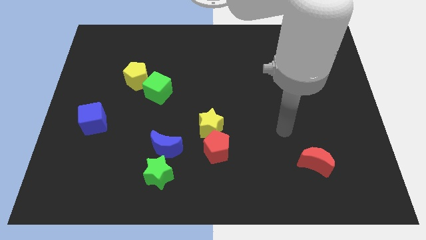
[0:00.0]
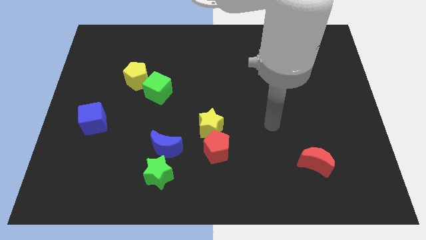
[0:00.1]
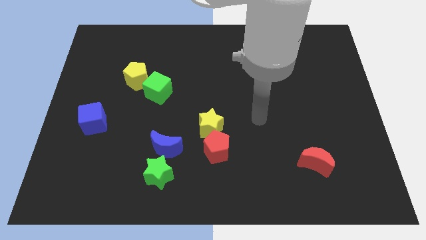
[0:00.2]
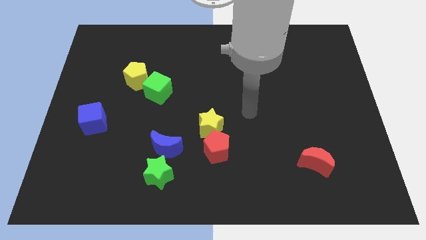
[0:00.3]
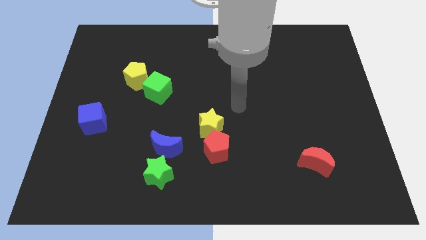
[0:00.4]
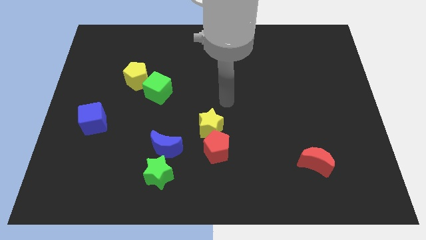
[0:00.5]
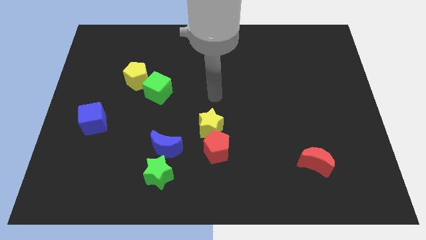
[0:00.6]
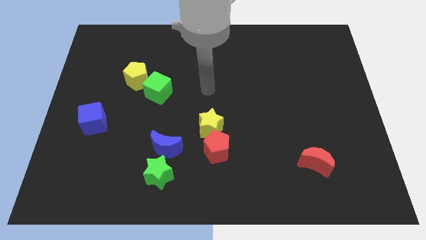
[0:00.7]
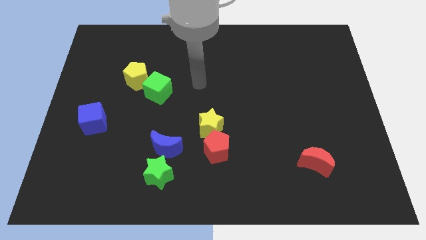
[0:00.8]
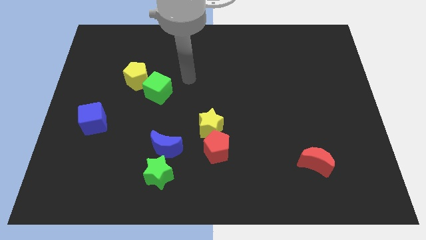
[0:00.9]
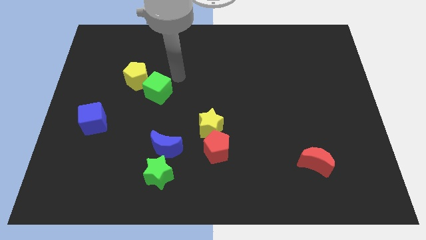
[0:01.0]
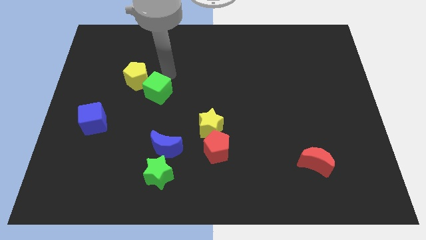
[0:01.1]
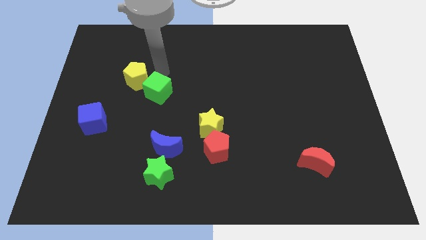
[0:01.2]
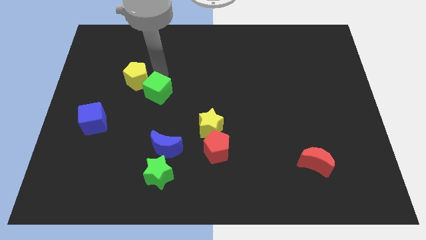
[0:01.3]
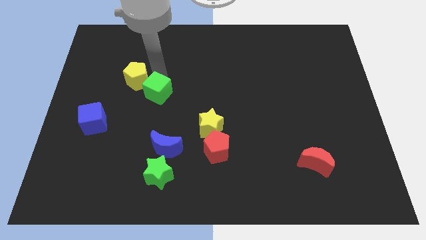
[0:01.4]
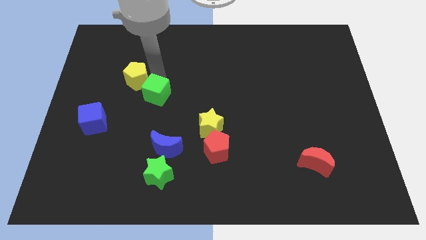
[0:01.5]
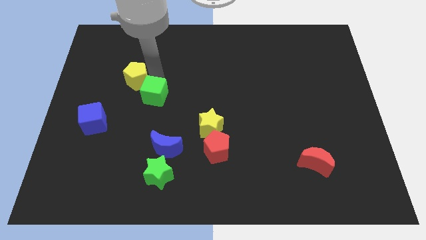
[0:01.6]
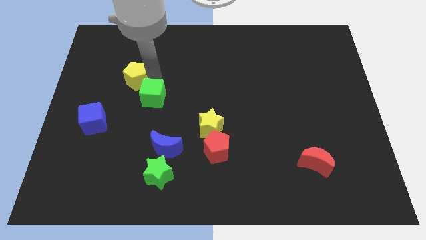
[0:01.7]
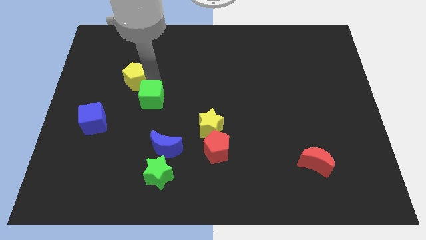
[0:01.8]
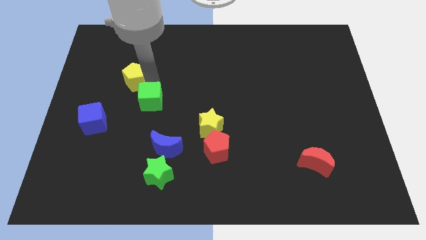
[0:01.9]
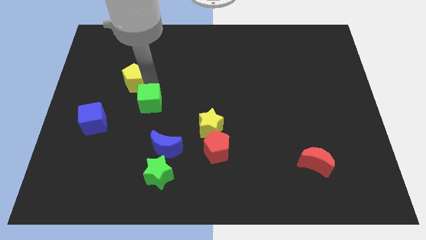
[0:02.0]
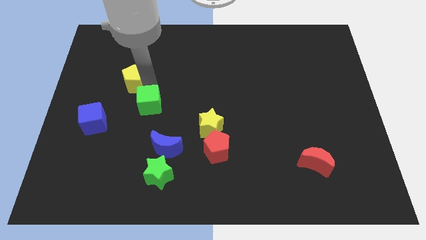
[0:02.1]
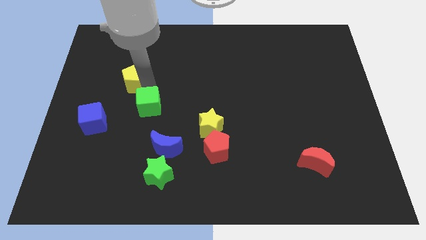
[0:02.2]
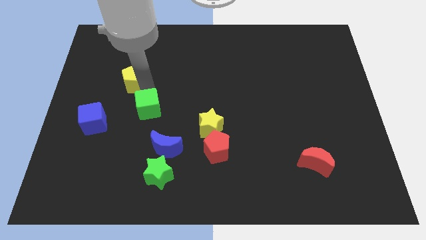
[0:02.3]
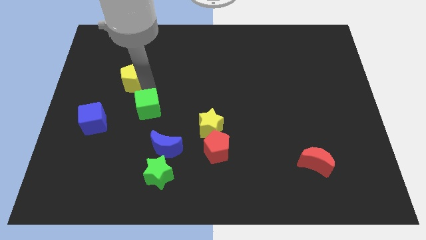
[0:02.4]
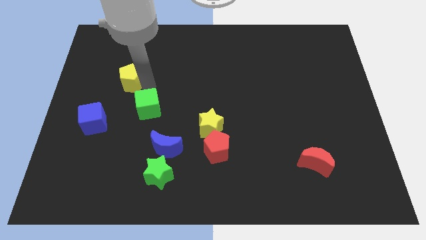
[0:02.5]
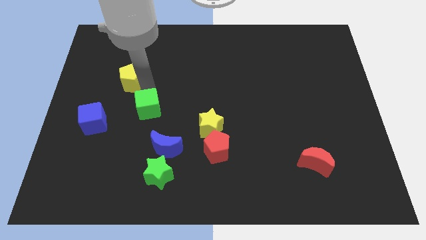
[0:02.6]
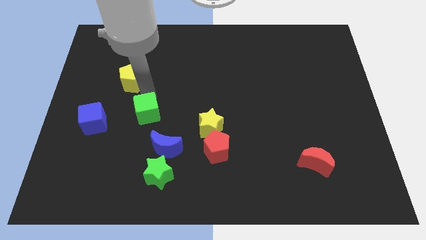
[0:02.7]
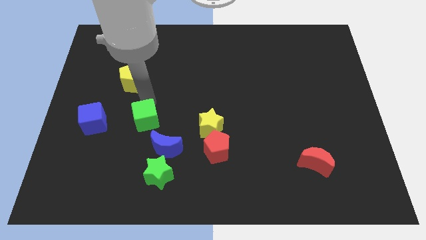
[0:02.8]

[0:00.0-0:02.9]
slightly push the green cube downwards

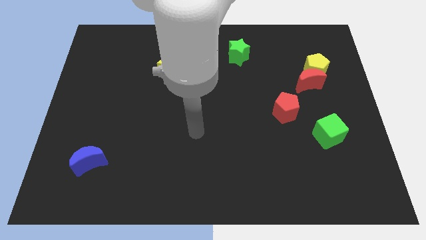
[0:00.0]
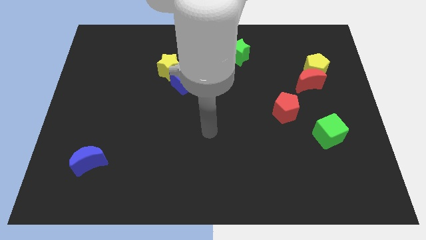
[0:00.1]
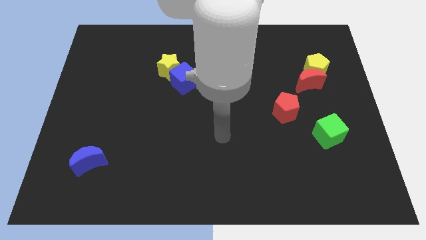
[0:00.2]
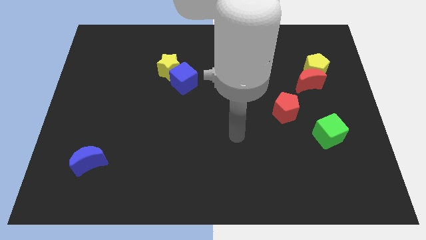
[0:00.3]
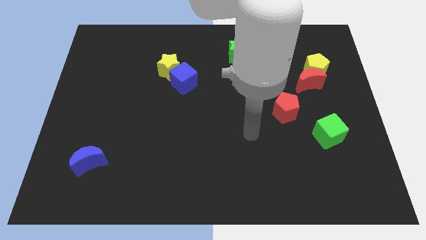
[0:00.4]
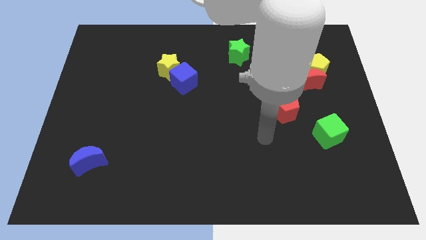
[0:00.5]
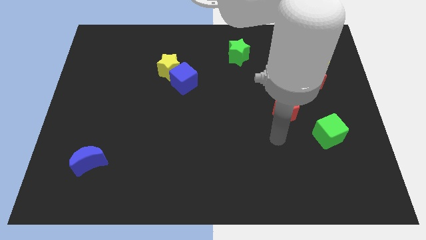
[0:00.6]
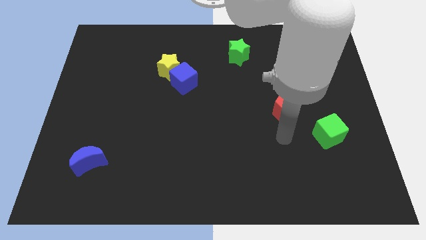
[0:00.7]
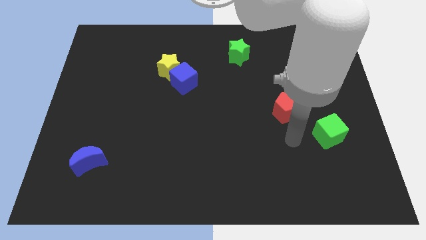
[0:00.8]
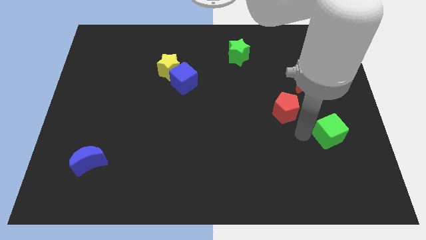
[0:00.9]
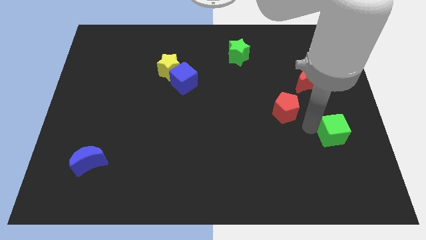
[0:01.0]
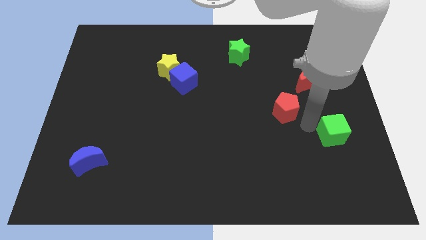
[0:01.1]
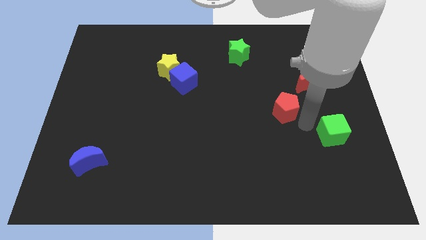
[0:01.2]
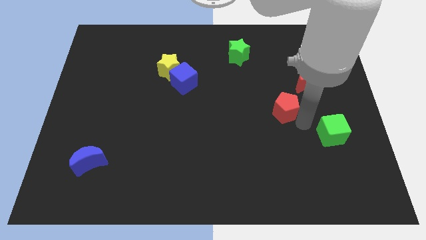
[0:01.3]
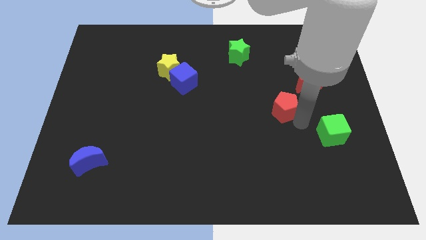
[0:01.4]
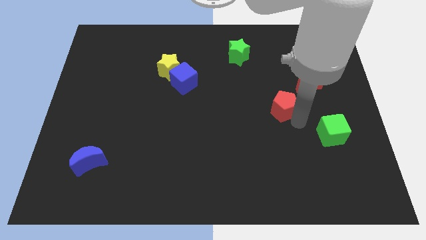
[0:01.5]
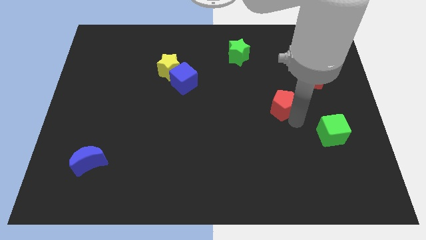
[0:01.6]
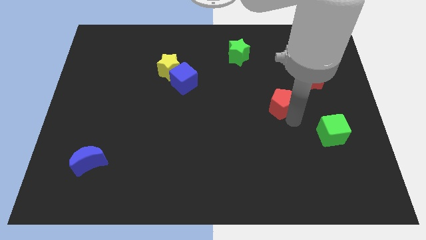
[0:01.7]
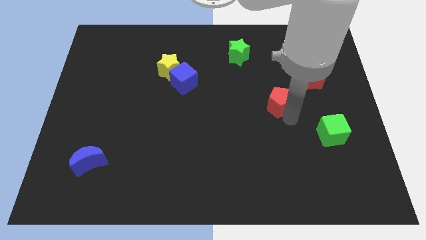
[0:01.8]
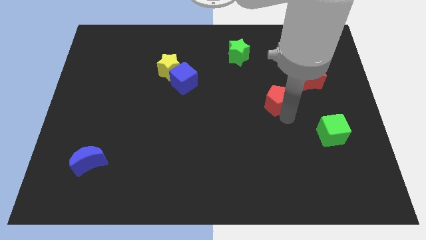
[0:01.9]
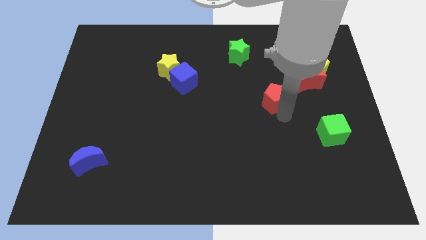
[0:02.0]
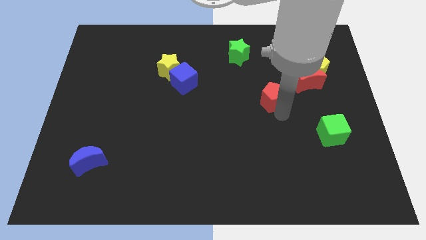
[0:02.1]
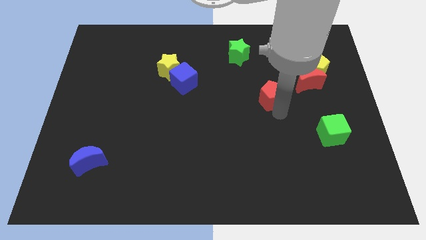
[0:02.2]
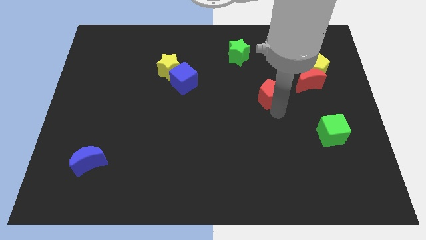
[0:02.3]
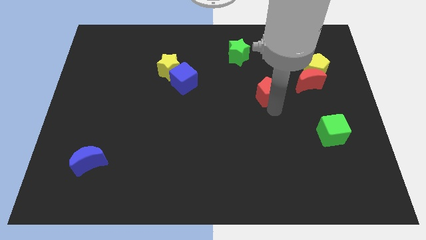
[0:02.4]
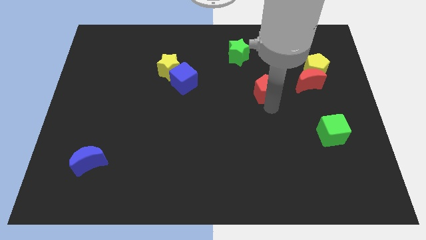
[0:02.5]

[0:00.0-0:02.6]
slide the red pentagon upwards and then to the left somewhat

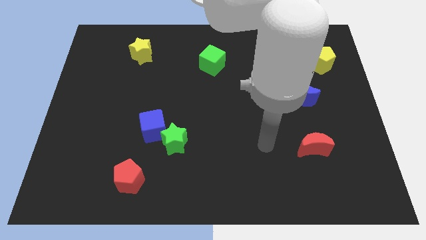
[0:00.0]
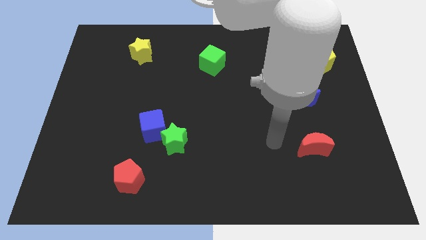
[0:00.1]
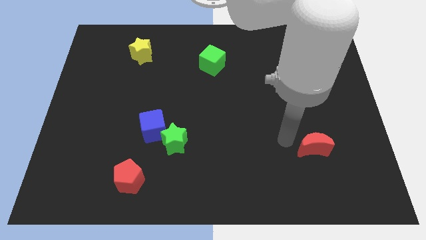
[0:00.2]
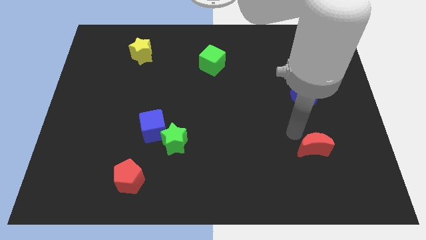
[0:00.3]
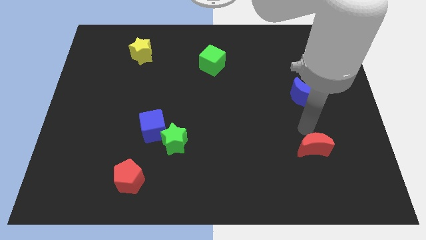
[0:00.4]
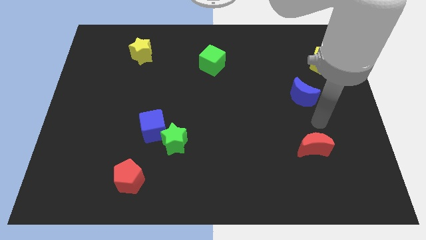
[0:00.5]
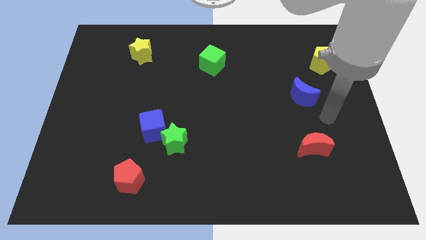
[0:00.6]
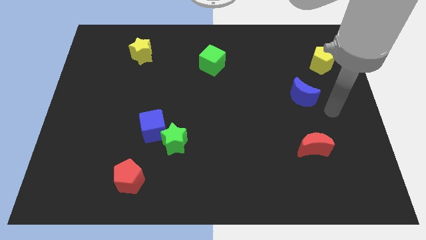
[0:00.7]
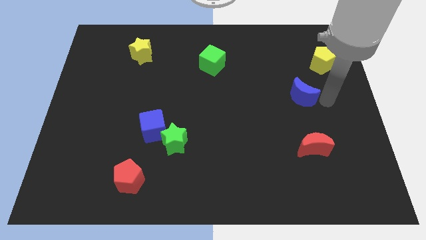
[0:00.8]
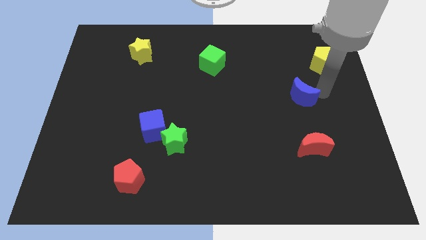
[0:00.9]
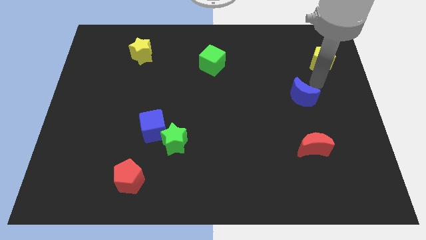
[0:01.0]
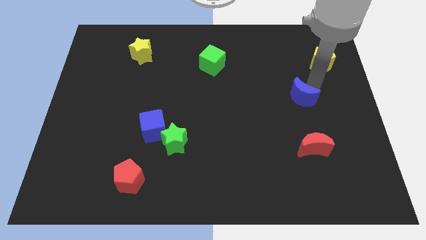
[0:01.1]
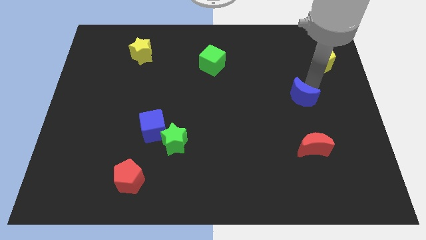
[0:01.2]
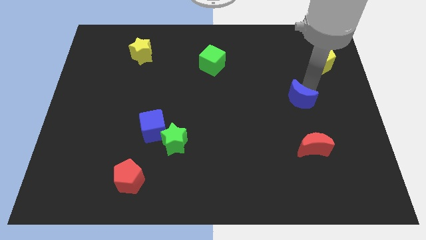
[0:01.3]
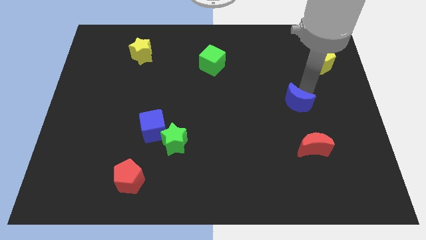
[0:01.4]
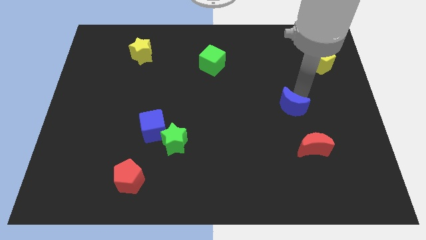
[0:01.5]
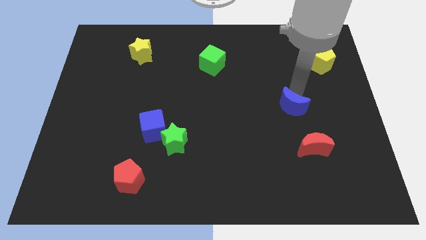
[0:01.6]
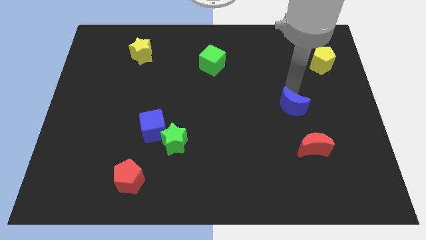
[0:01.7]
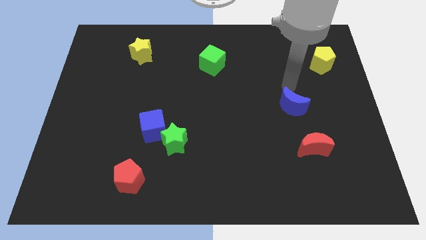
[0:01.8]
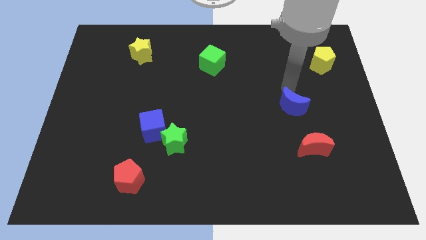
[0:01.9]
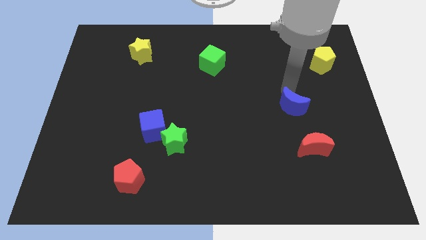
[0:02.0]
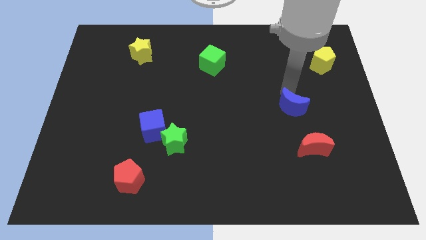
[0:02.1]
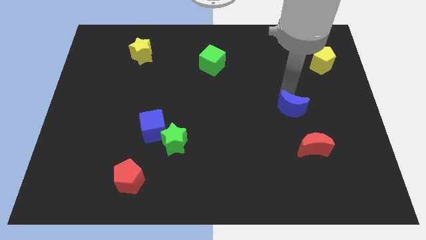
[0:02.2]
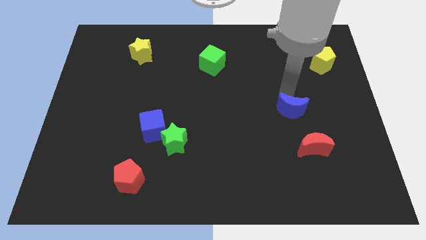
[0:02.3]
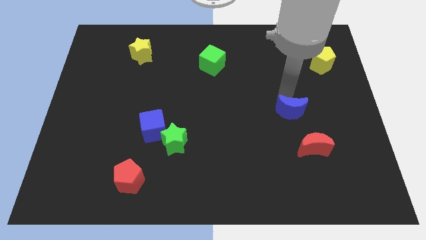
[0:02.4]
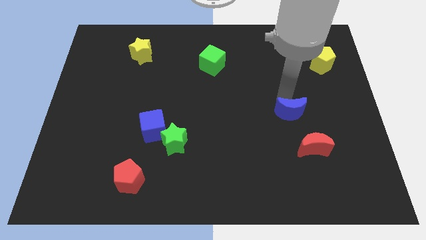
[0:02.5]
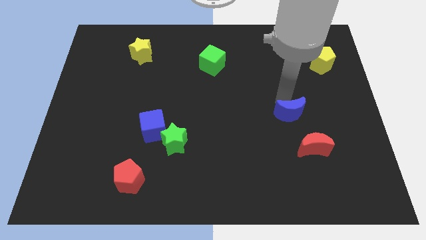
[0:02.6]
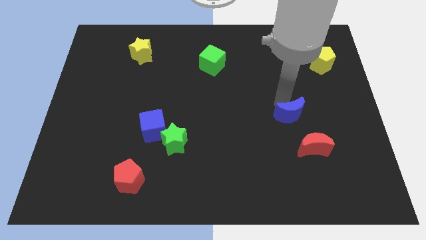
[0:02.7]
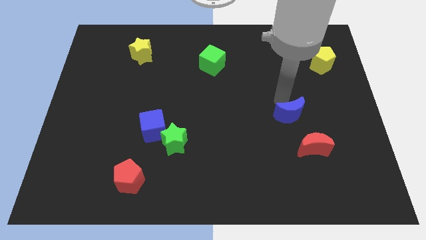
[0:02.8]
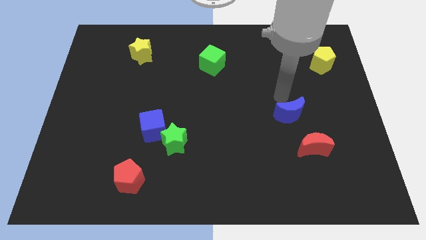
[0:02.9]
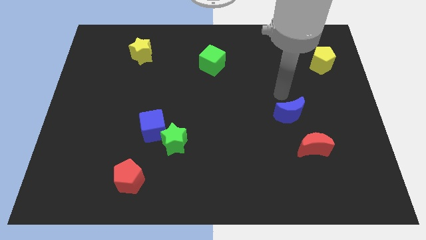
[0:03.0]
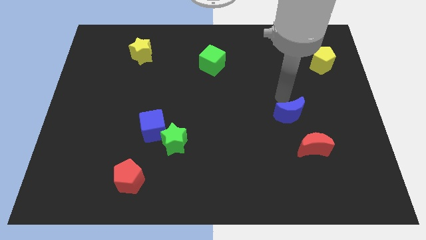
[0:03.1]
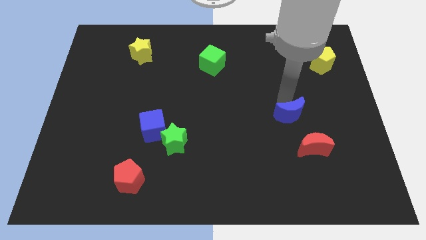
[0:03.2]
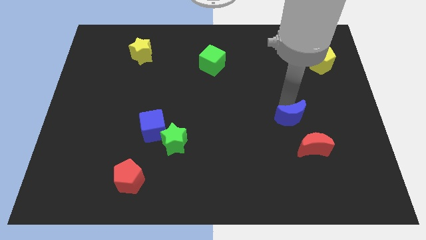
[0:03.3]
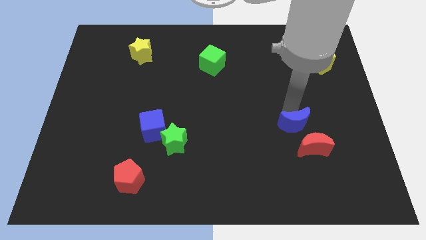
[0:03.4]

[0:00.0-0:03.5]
slightly move the blue moon down
